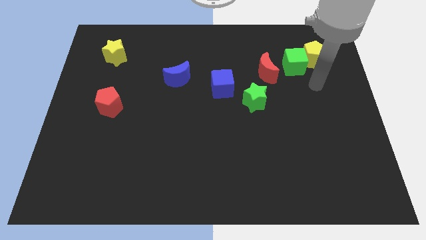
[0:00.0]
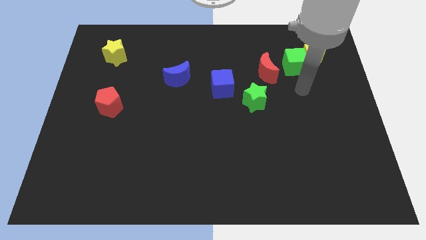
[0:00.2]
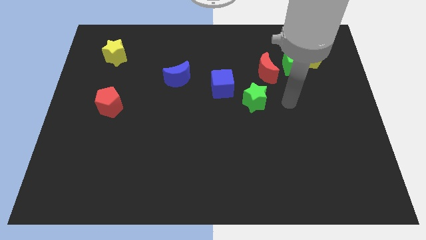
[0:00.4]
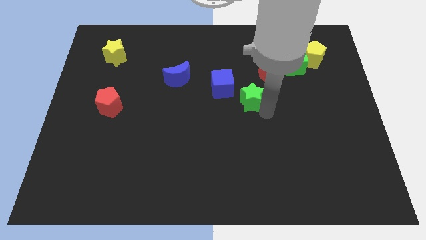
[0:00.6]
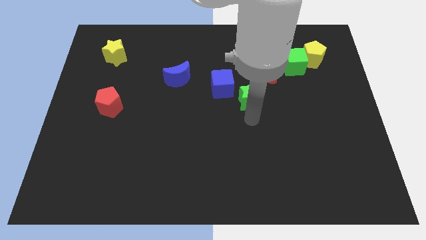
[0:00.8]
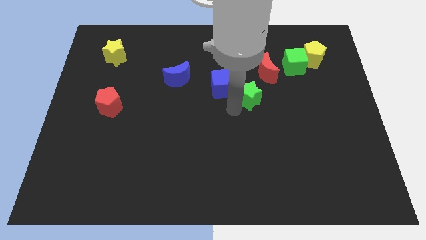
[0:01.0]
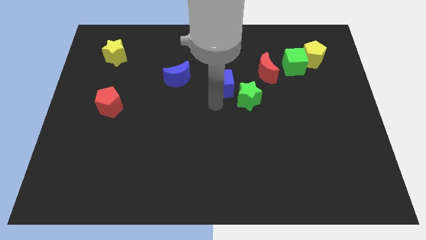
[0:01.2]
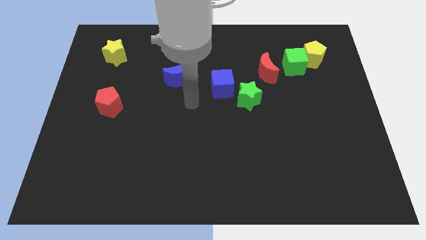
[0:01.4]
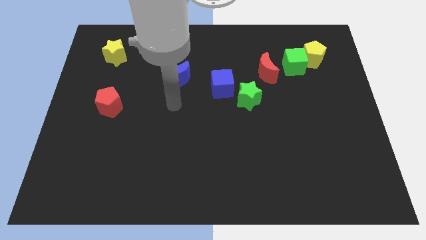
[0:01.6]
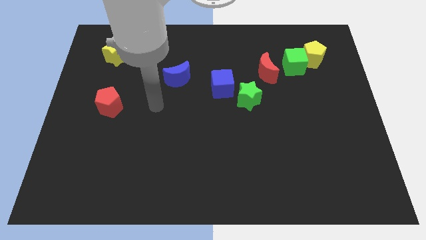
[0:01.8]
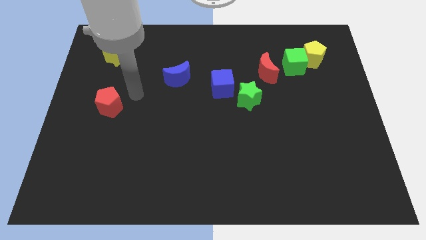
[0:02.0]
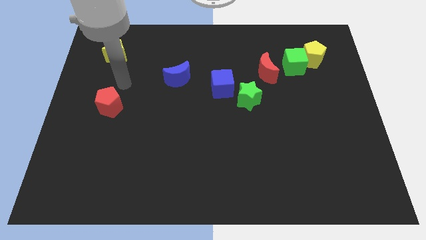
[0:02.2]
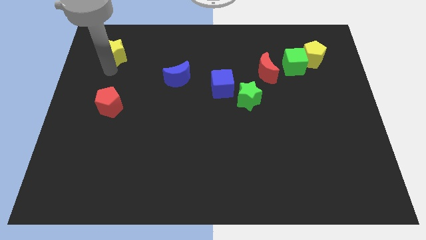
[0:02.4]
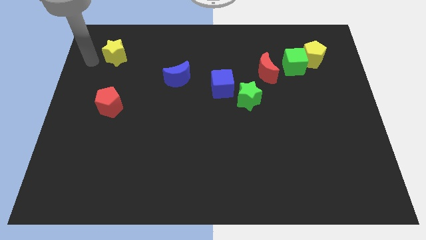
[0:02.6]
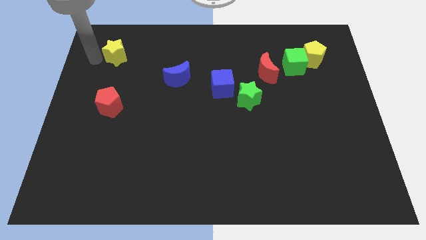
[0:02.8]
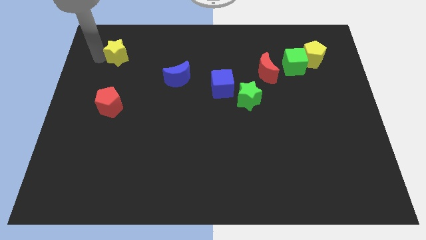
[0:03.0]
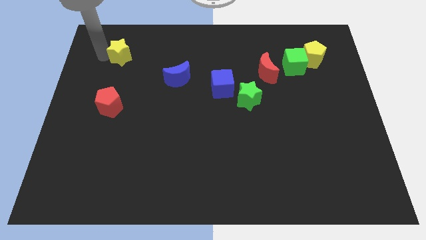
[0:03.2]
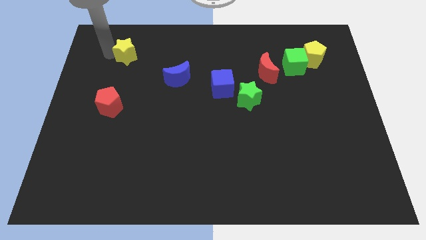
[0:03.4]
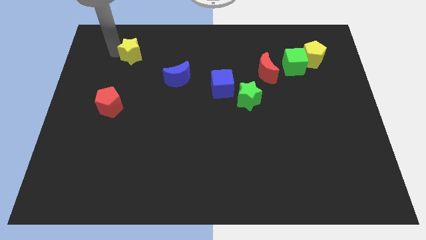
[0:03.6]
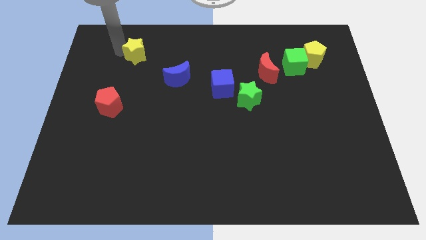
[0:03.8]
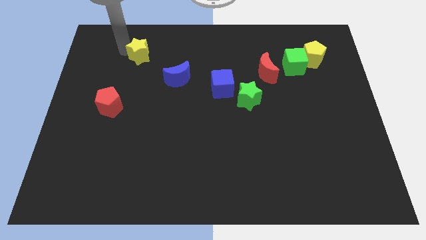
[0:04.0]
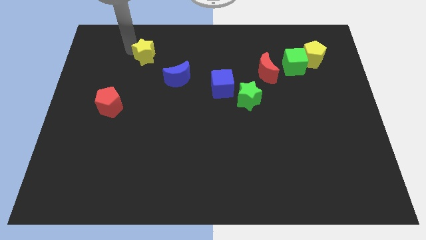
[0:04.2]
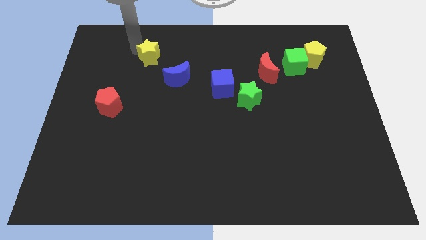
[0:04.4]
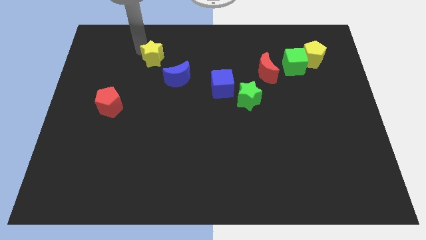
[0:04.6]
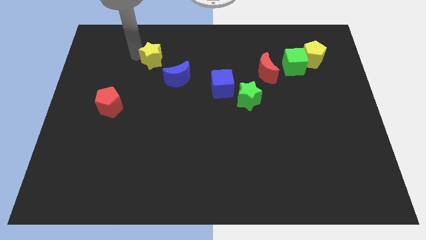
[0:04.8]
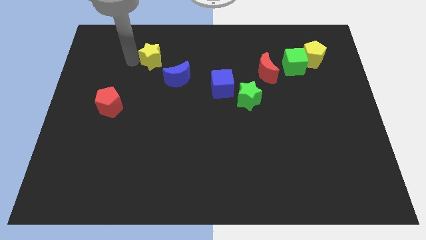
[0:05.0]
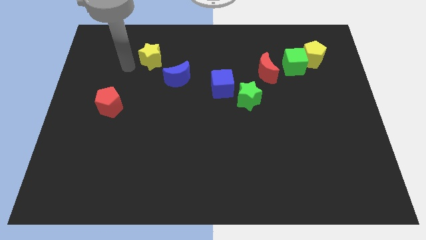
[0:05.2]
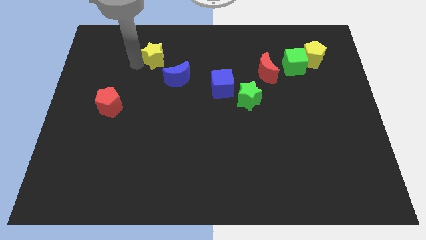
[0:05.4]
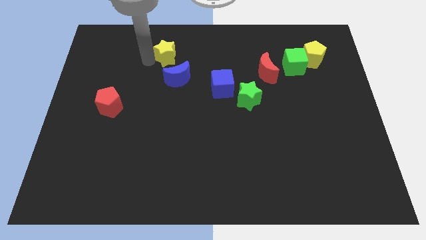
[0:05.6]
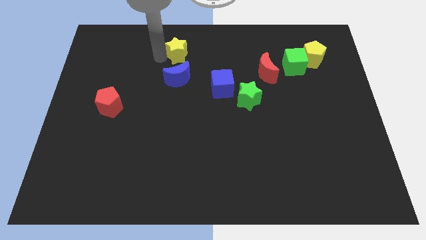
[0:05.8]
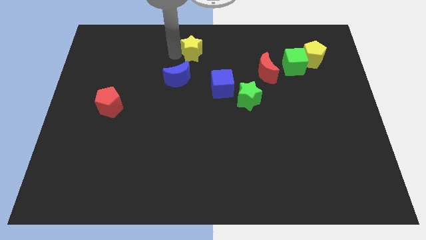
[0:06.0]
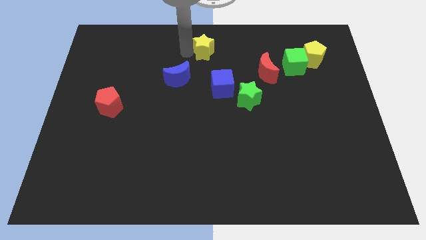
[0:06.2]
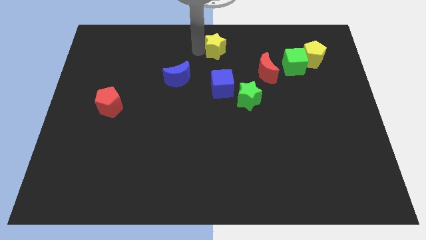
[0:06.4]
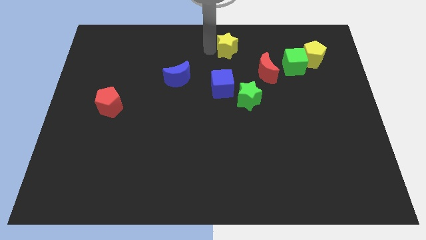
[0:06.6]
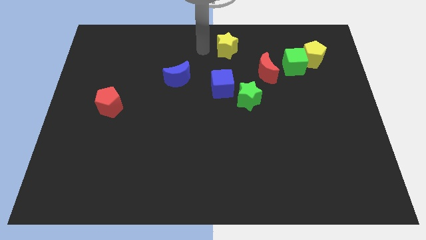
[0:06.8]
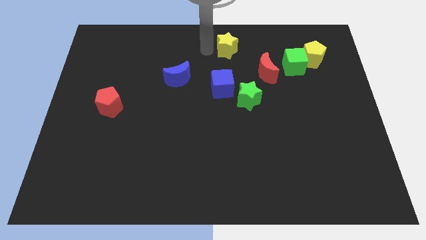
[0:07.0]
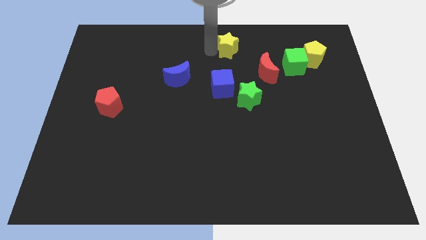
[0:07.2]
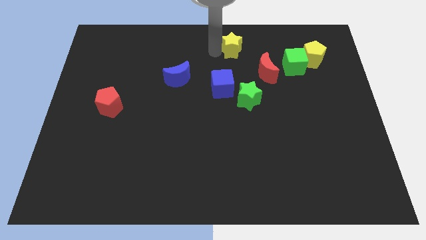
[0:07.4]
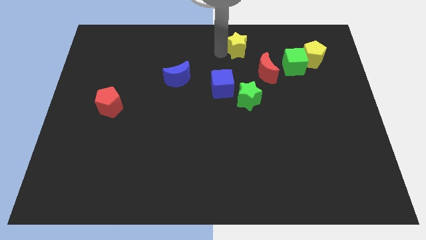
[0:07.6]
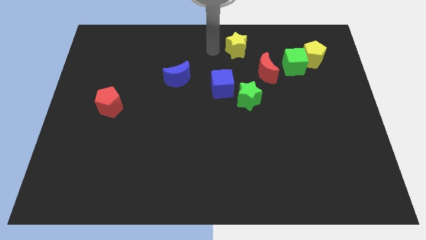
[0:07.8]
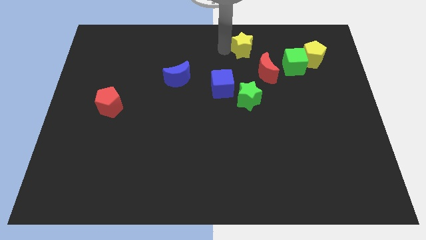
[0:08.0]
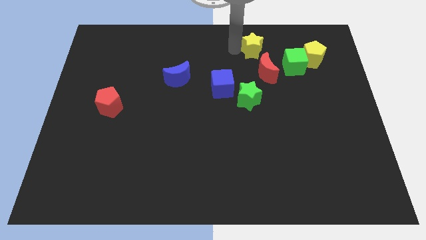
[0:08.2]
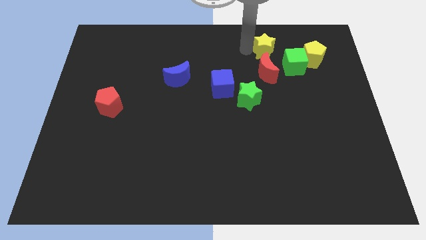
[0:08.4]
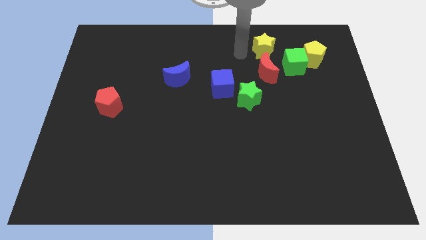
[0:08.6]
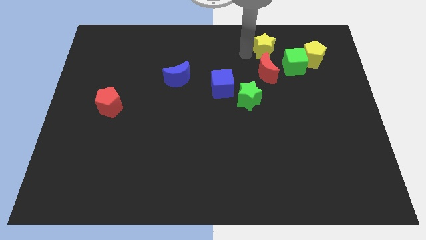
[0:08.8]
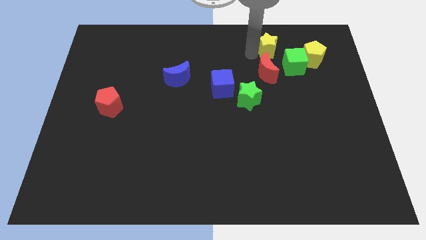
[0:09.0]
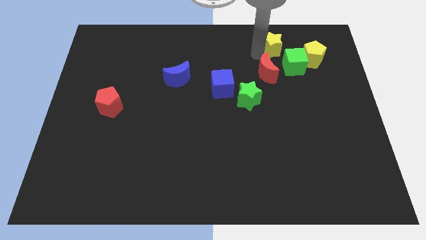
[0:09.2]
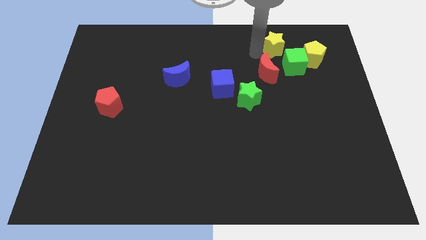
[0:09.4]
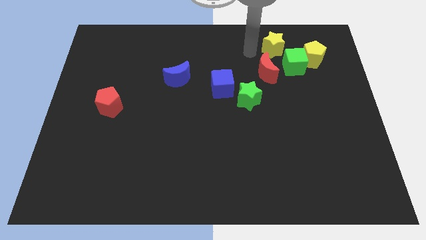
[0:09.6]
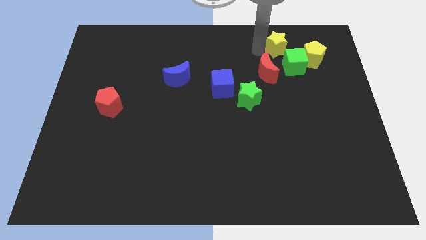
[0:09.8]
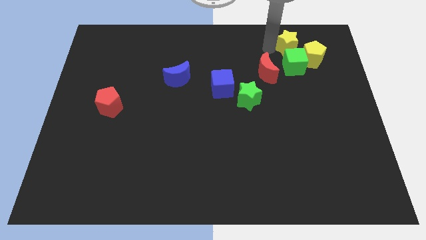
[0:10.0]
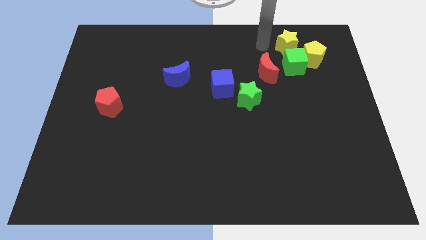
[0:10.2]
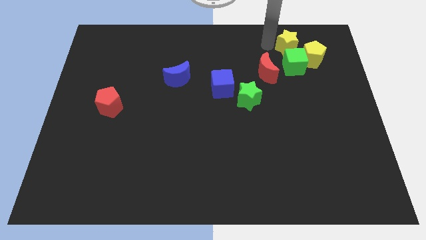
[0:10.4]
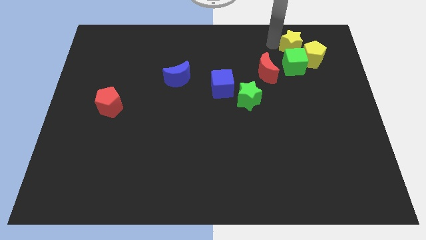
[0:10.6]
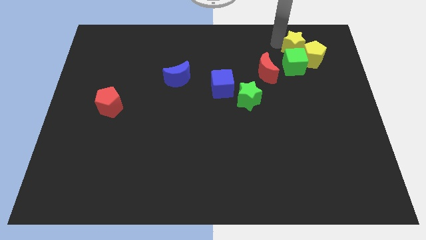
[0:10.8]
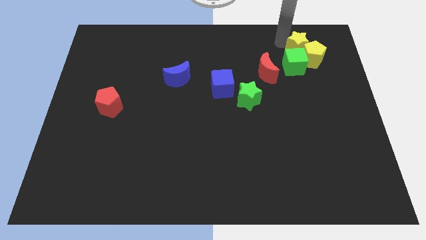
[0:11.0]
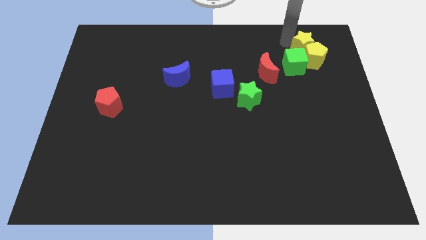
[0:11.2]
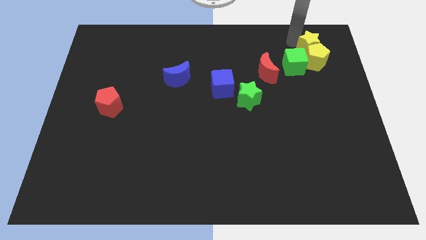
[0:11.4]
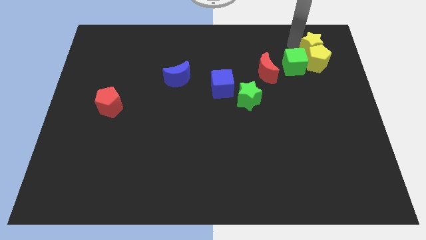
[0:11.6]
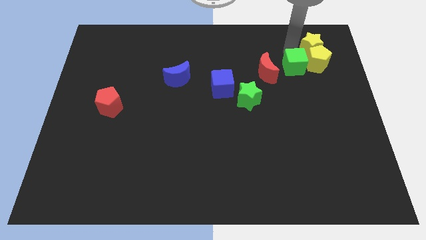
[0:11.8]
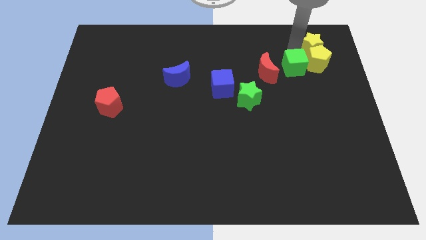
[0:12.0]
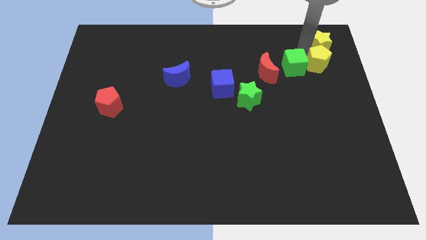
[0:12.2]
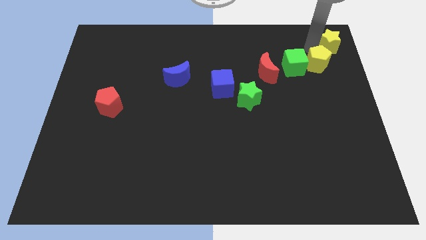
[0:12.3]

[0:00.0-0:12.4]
move the yellow star to the top right of the board
